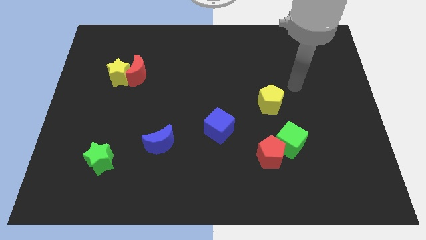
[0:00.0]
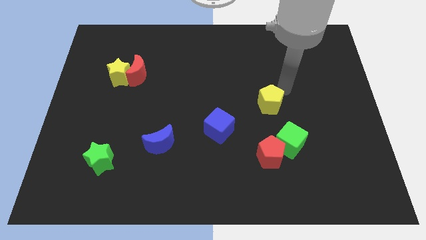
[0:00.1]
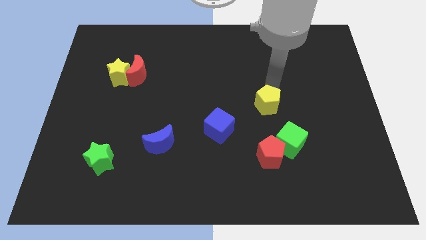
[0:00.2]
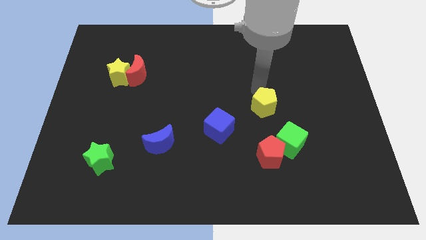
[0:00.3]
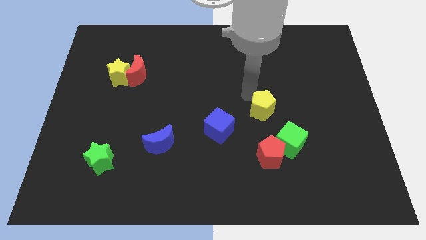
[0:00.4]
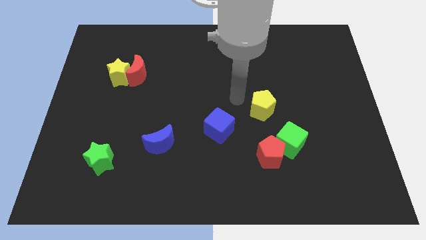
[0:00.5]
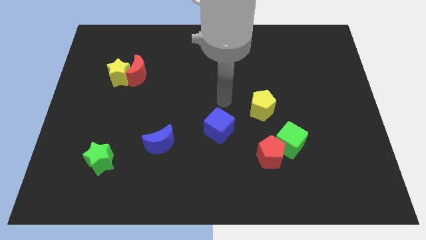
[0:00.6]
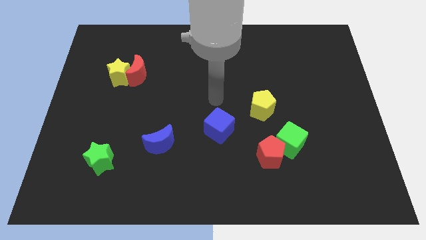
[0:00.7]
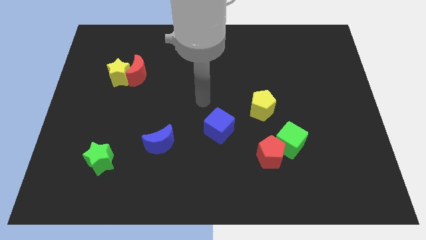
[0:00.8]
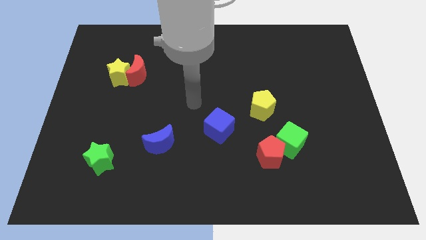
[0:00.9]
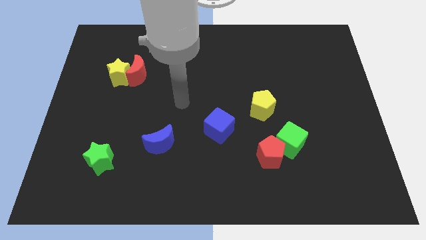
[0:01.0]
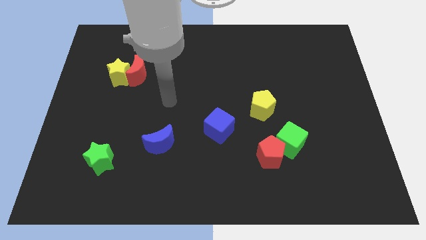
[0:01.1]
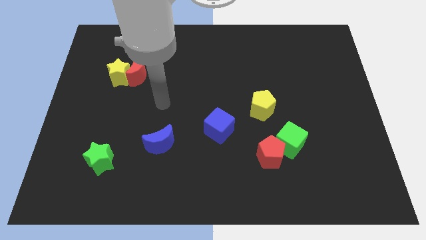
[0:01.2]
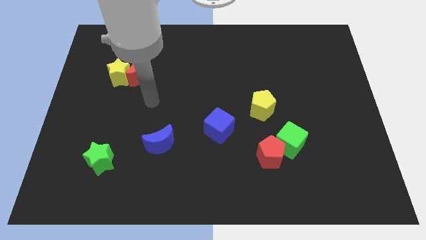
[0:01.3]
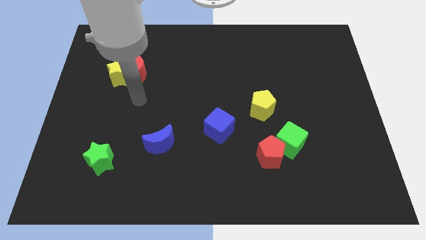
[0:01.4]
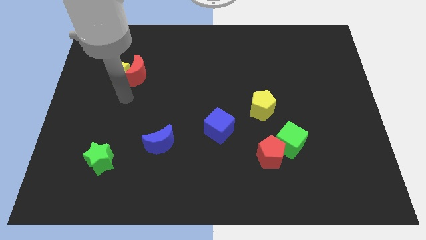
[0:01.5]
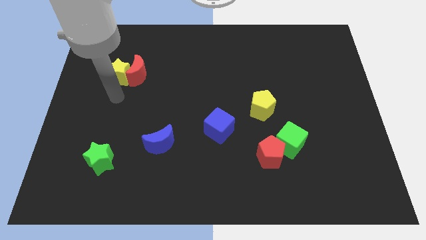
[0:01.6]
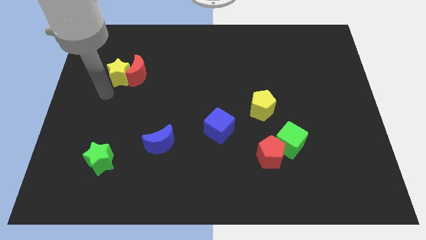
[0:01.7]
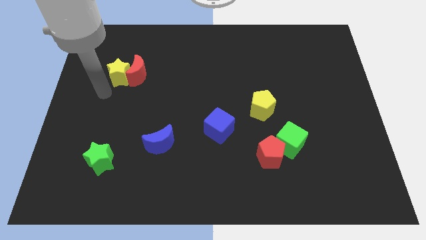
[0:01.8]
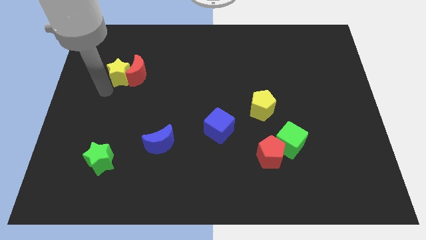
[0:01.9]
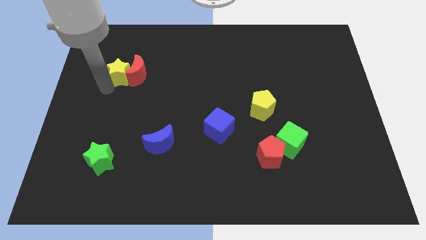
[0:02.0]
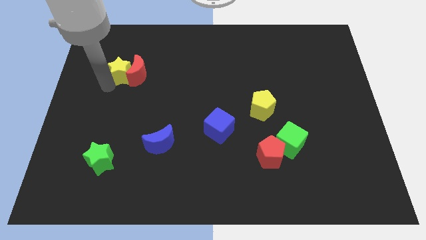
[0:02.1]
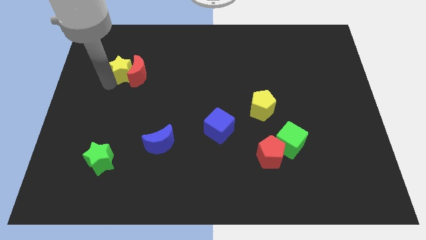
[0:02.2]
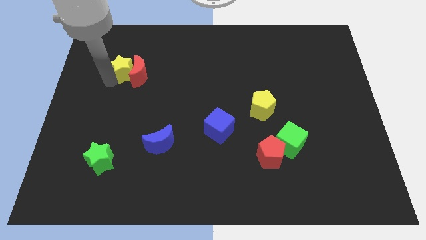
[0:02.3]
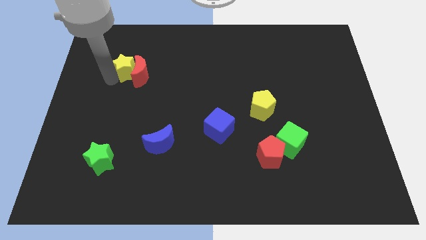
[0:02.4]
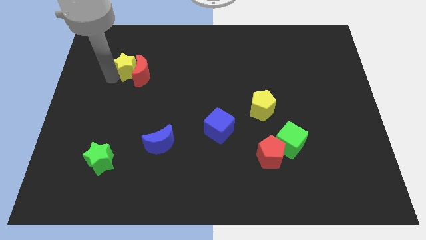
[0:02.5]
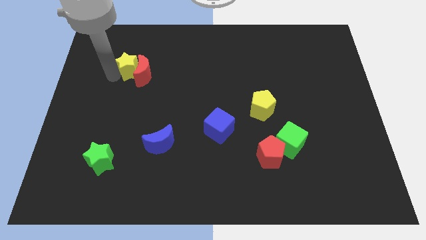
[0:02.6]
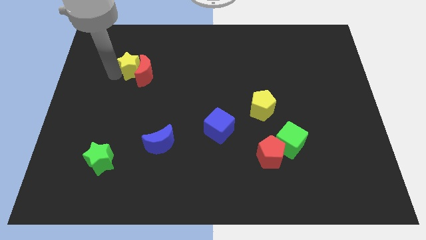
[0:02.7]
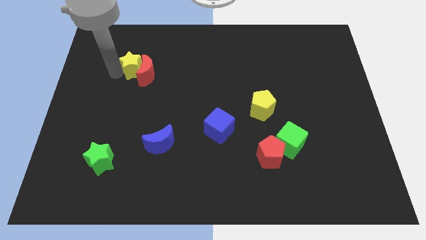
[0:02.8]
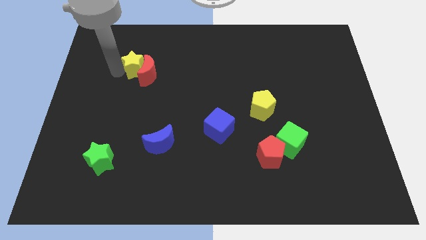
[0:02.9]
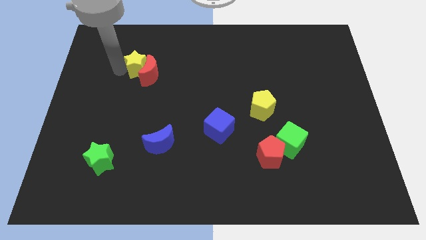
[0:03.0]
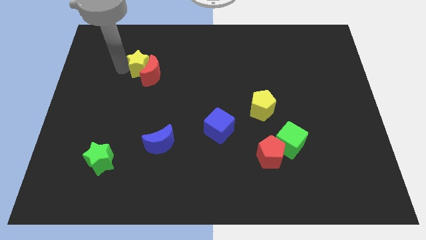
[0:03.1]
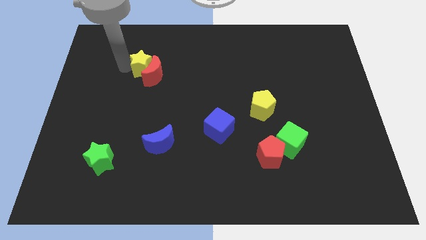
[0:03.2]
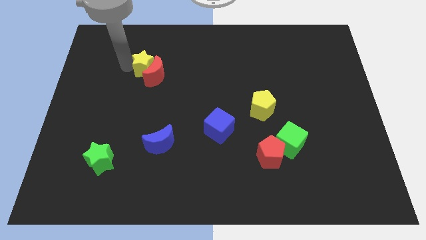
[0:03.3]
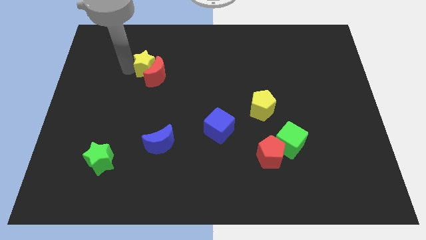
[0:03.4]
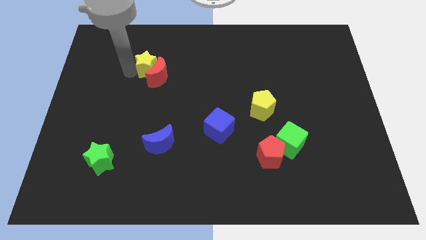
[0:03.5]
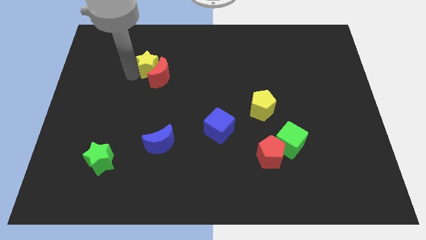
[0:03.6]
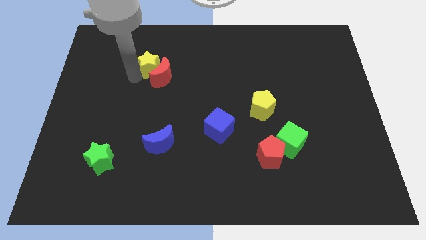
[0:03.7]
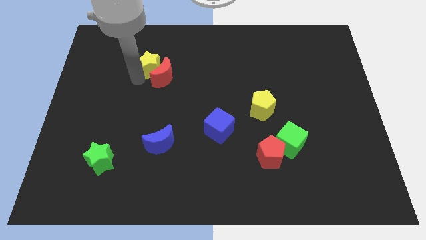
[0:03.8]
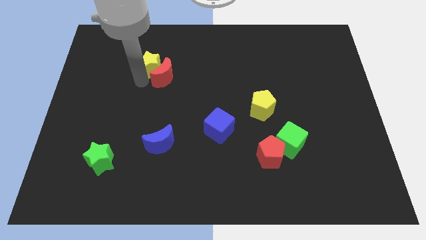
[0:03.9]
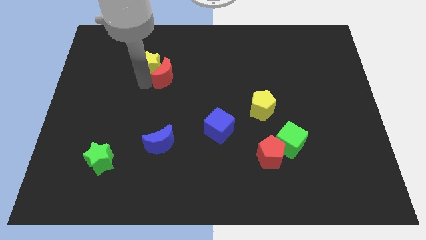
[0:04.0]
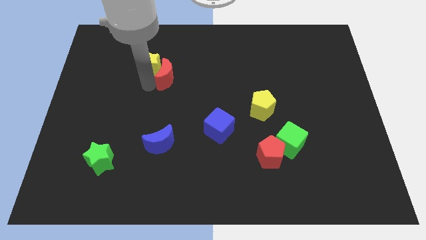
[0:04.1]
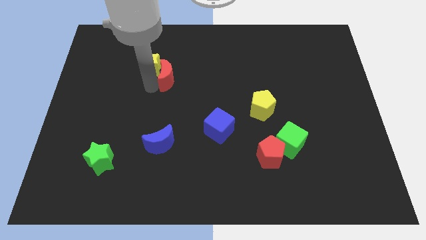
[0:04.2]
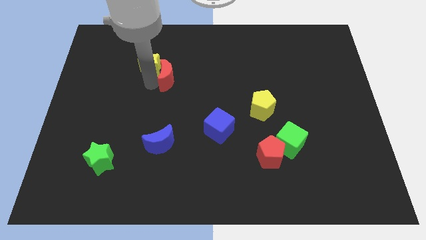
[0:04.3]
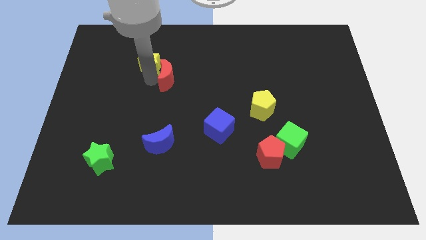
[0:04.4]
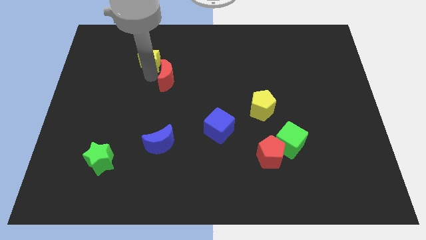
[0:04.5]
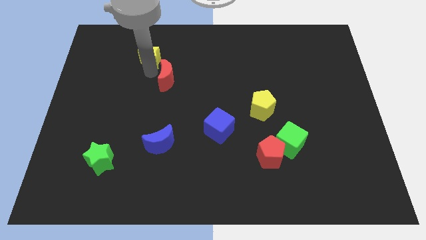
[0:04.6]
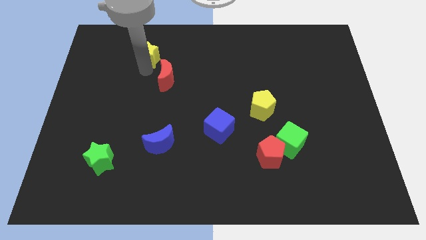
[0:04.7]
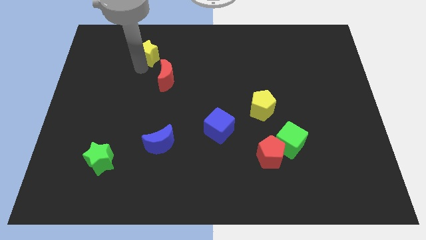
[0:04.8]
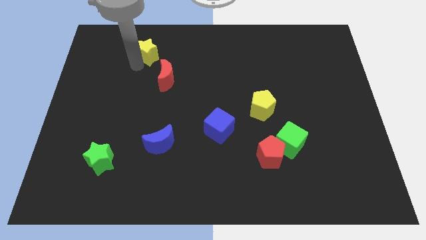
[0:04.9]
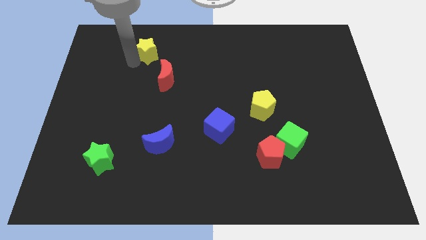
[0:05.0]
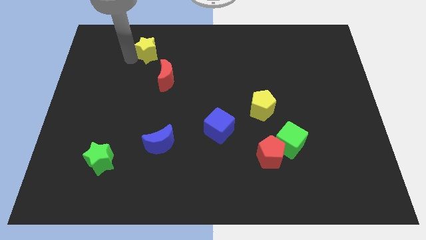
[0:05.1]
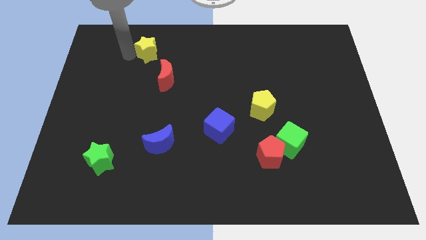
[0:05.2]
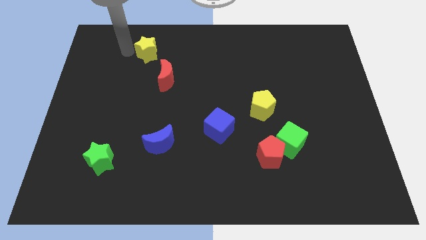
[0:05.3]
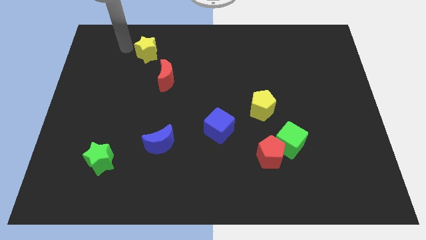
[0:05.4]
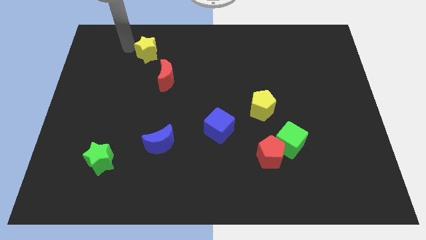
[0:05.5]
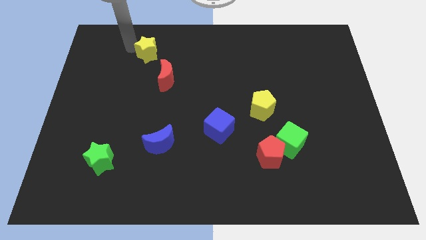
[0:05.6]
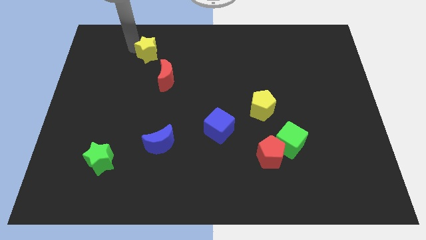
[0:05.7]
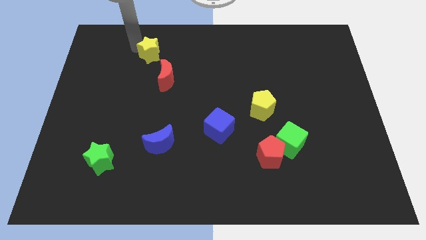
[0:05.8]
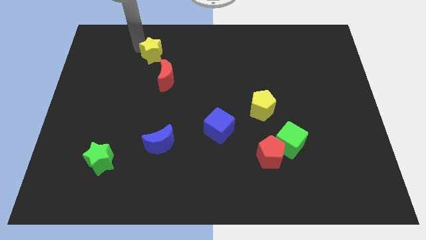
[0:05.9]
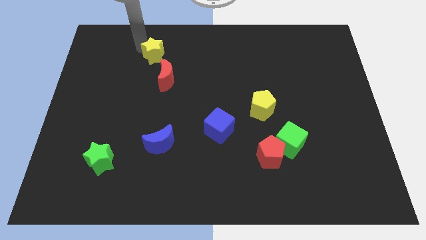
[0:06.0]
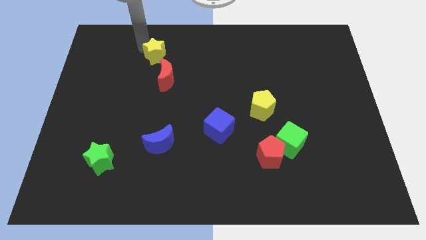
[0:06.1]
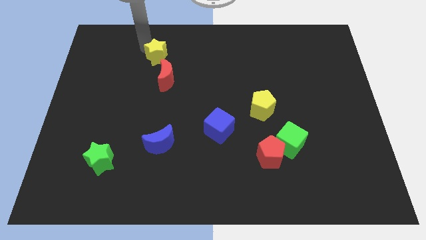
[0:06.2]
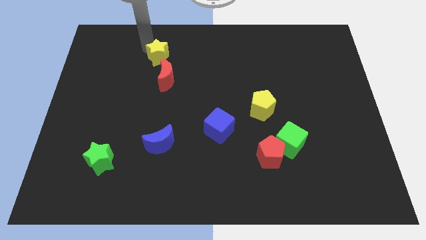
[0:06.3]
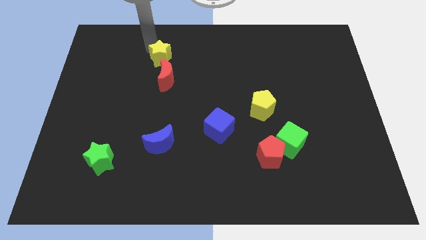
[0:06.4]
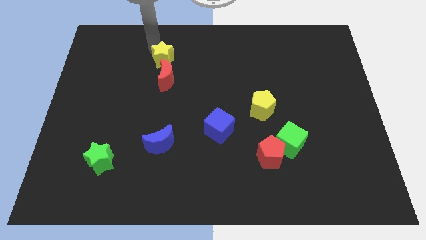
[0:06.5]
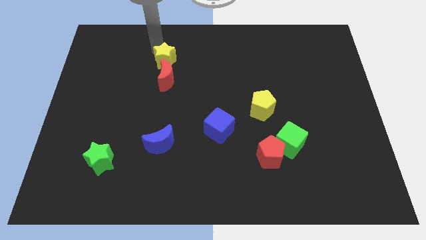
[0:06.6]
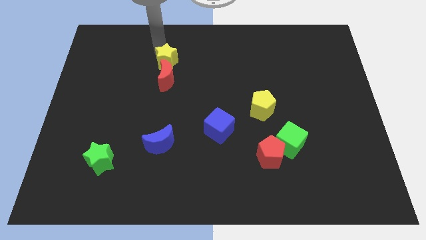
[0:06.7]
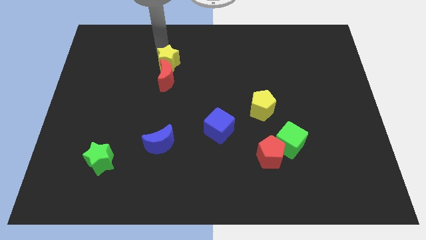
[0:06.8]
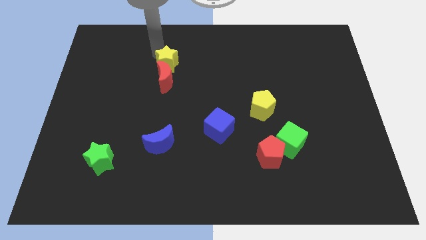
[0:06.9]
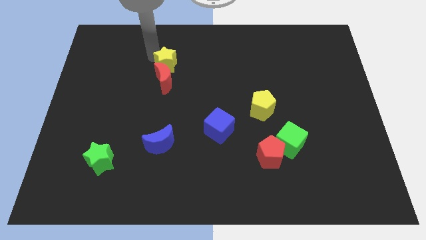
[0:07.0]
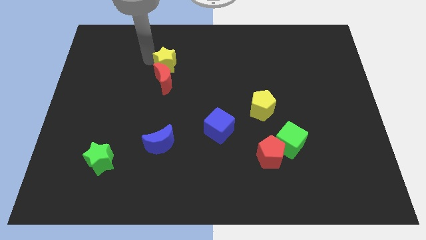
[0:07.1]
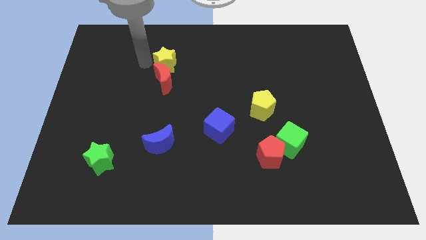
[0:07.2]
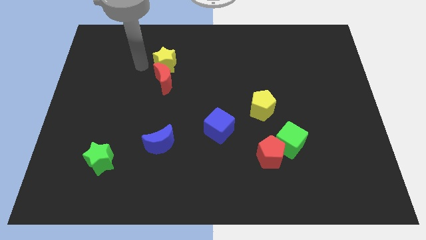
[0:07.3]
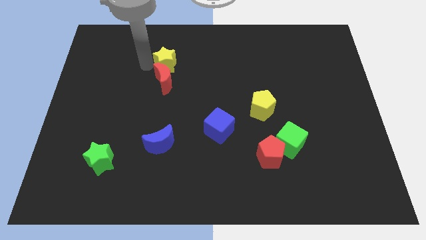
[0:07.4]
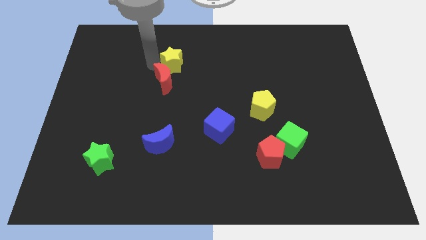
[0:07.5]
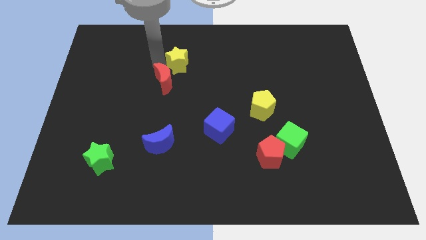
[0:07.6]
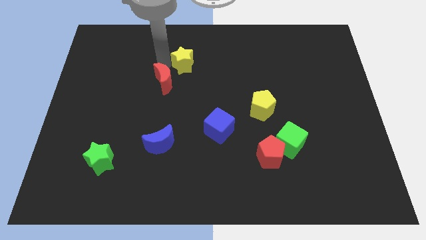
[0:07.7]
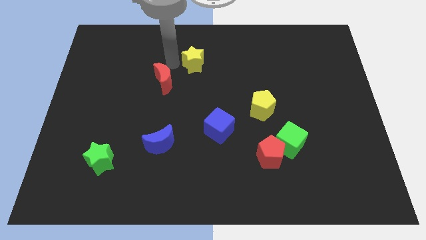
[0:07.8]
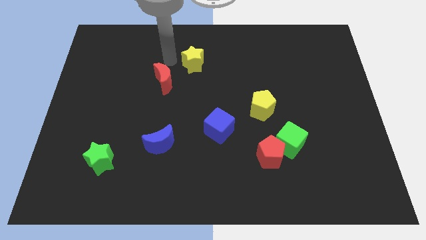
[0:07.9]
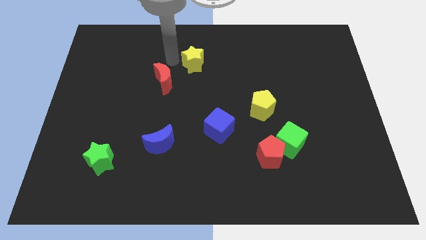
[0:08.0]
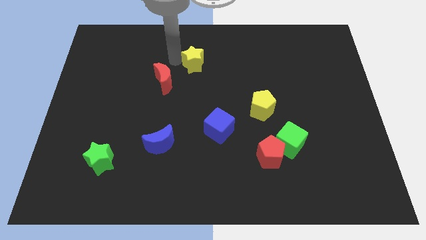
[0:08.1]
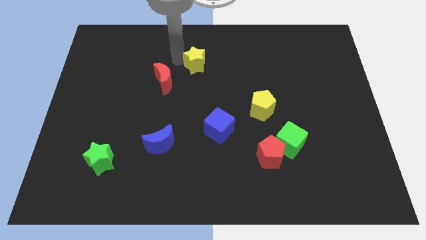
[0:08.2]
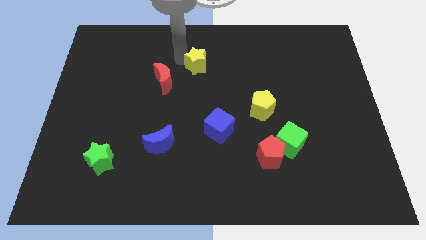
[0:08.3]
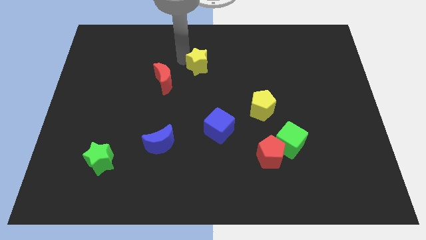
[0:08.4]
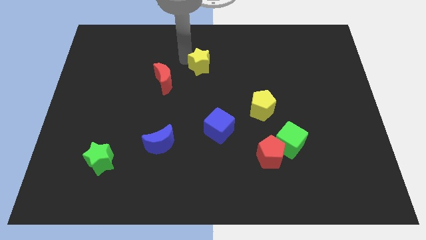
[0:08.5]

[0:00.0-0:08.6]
move the yellow star to the right
